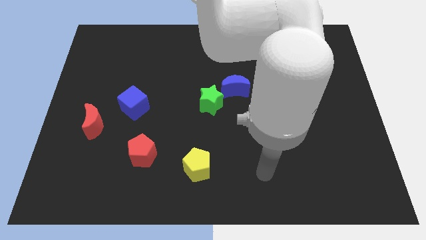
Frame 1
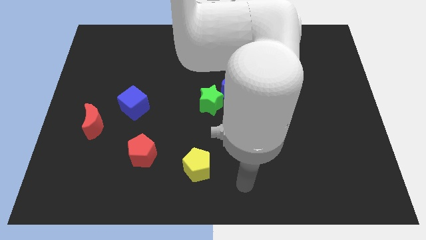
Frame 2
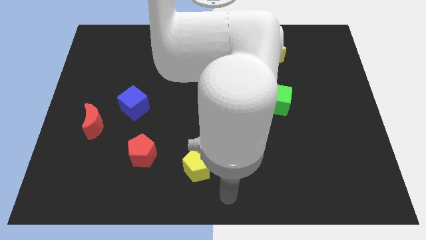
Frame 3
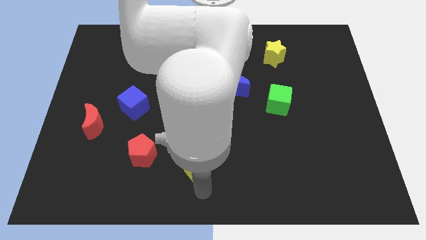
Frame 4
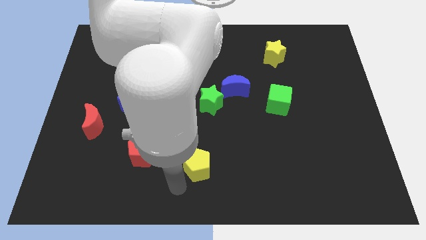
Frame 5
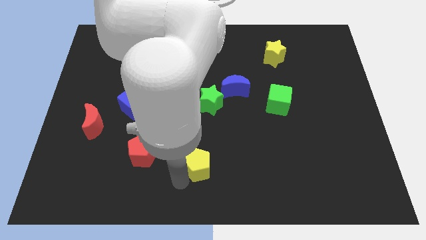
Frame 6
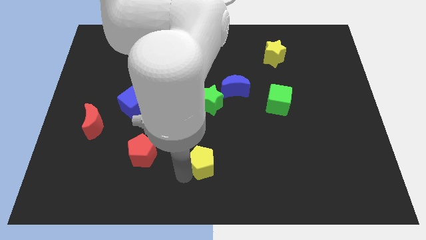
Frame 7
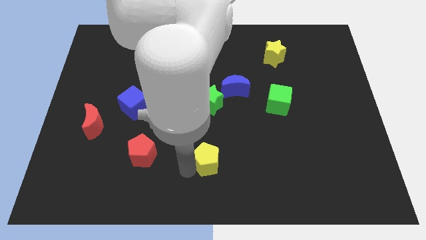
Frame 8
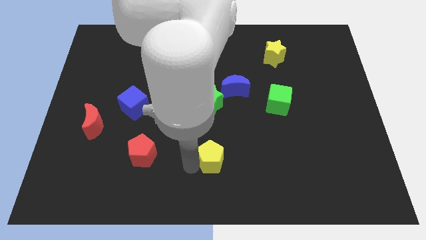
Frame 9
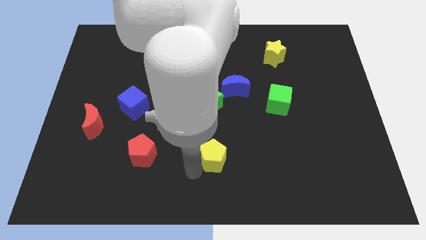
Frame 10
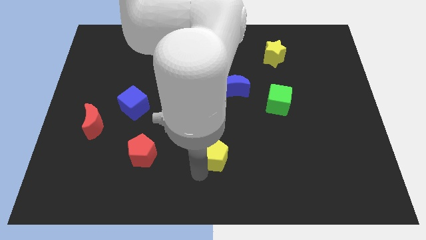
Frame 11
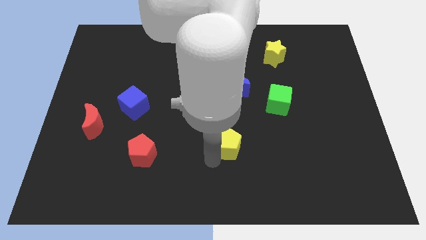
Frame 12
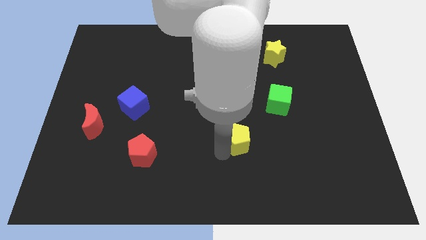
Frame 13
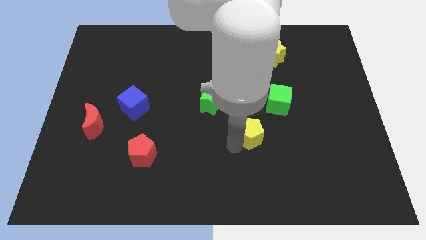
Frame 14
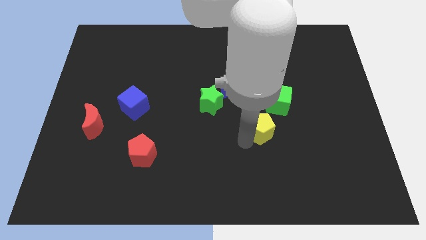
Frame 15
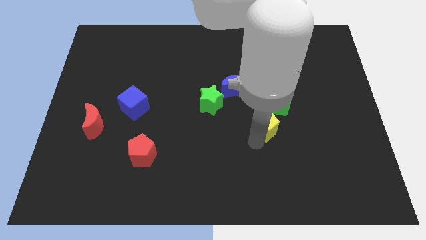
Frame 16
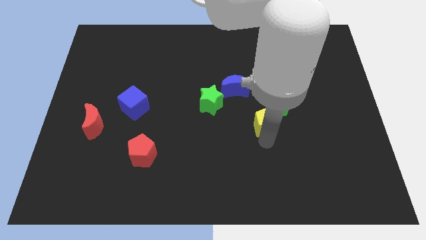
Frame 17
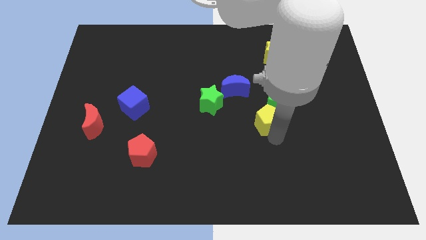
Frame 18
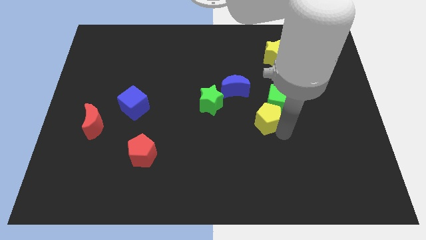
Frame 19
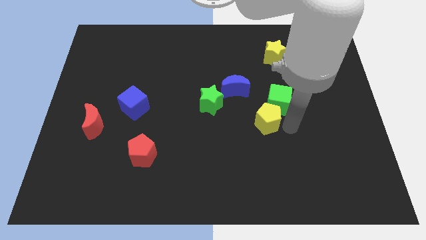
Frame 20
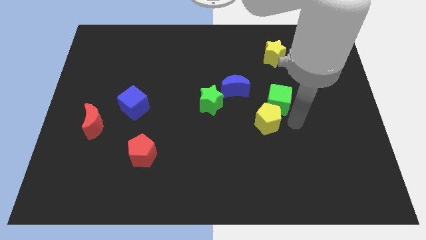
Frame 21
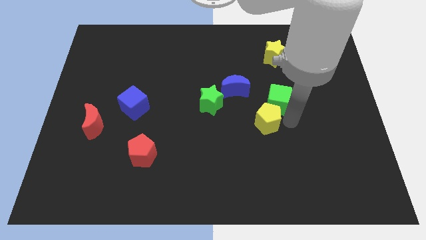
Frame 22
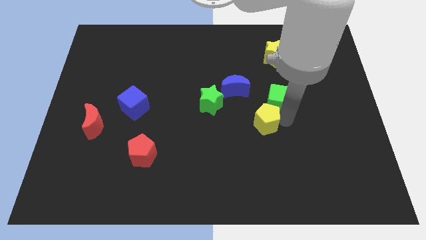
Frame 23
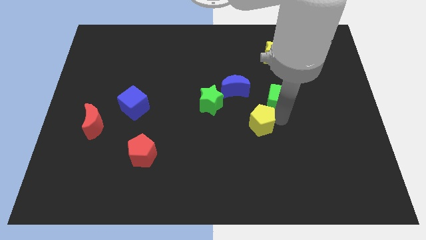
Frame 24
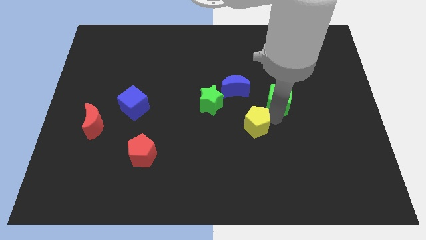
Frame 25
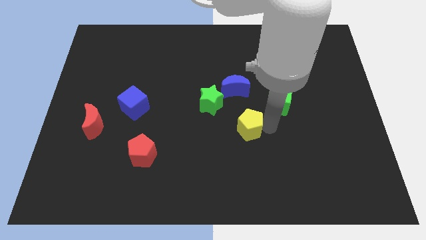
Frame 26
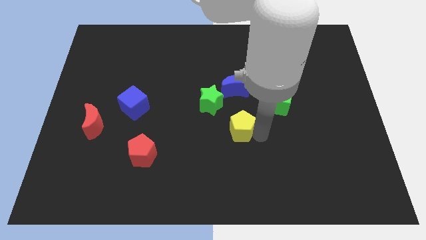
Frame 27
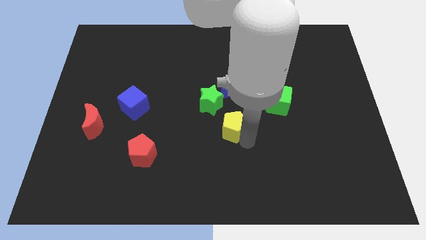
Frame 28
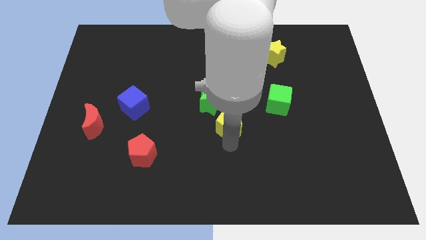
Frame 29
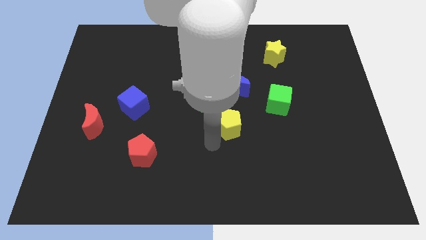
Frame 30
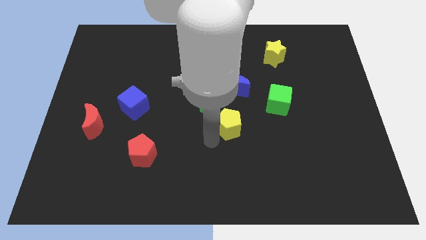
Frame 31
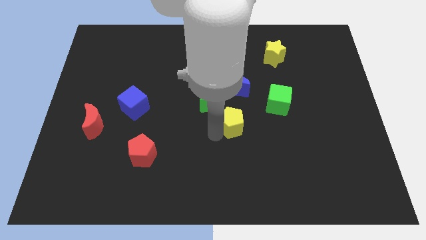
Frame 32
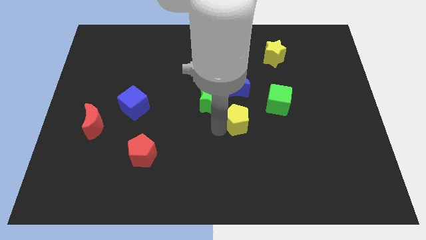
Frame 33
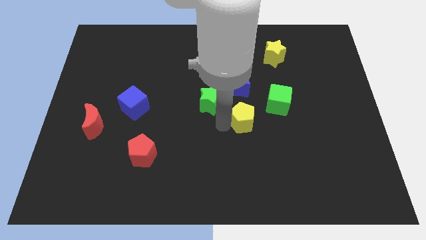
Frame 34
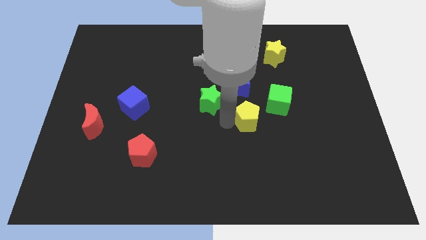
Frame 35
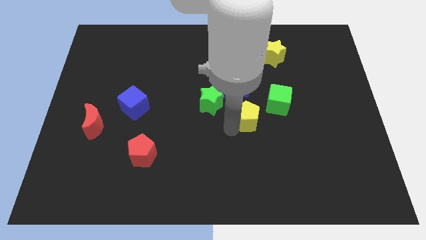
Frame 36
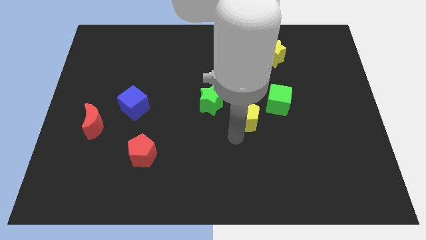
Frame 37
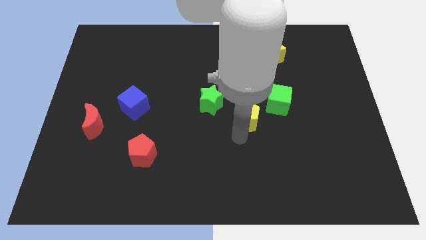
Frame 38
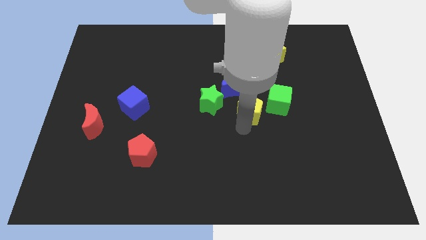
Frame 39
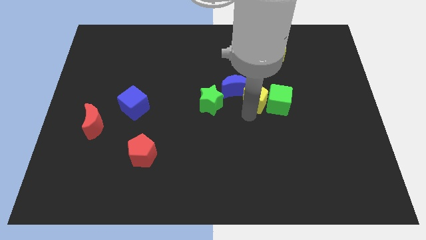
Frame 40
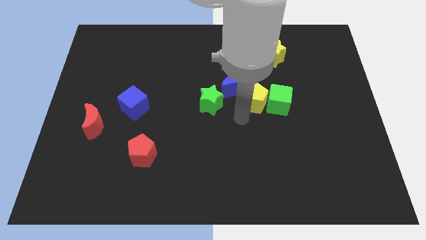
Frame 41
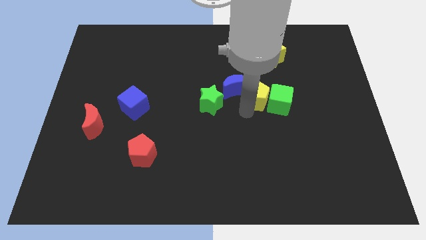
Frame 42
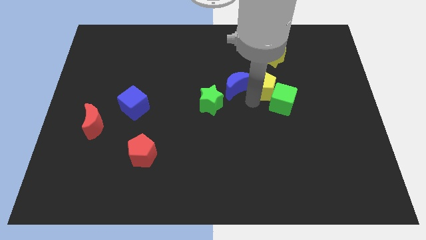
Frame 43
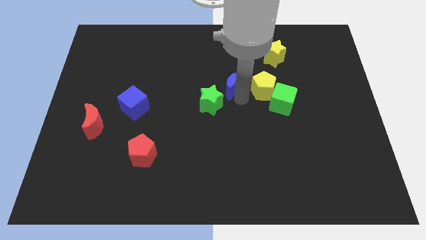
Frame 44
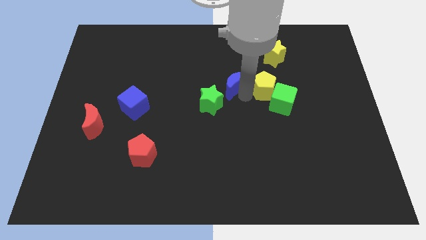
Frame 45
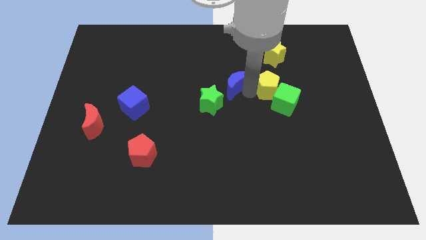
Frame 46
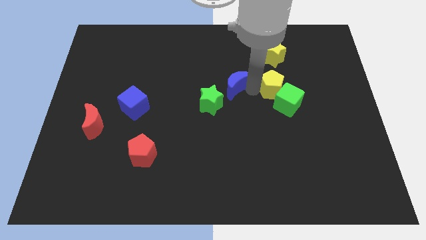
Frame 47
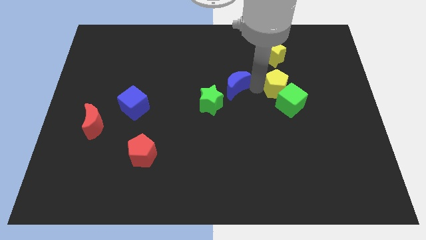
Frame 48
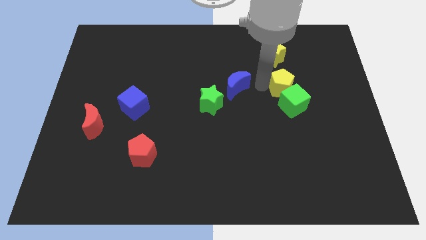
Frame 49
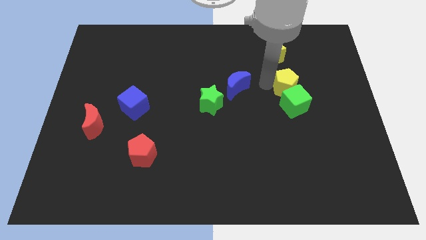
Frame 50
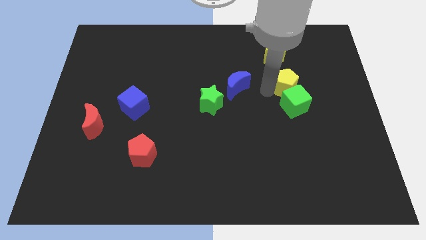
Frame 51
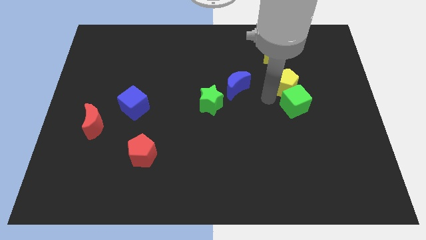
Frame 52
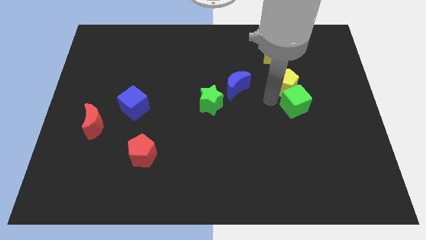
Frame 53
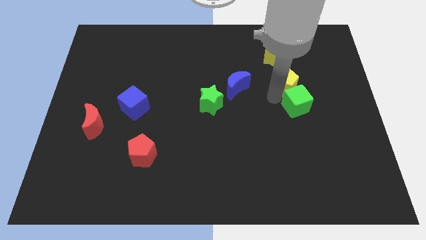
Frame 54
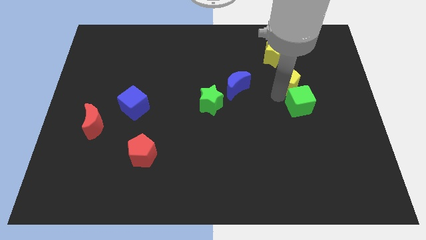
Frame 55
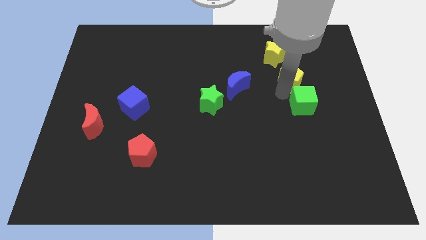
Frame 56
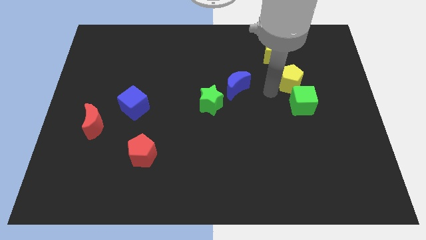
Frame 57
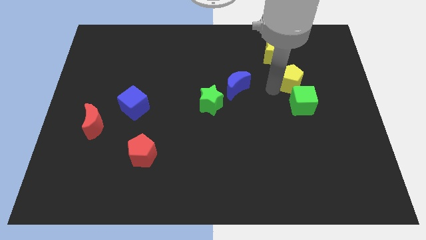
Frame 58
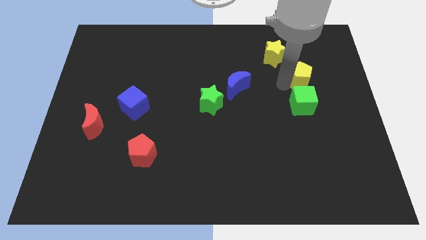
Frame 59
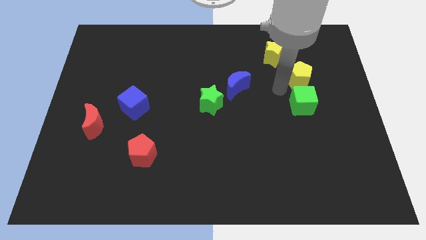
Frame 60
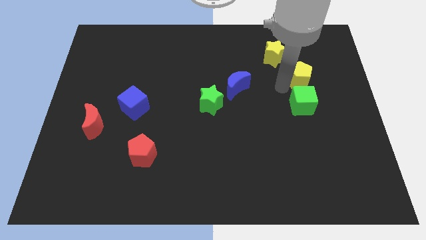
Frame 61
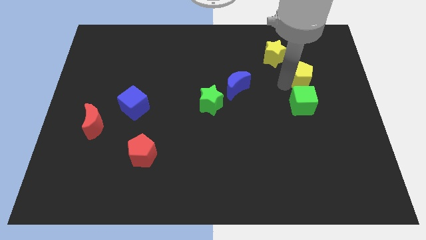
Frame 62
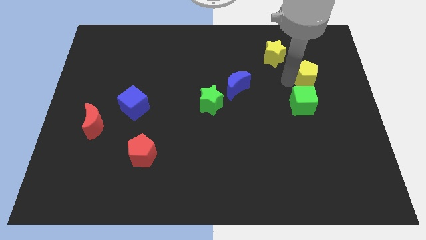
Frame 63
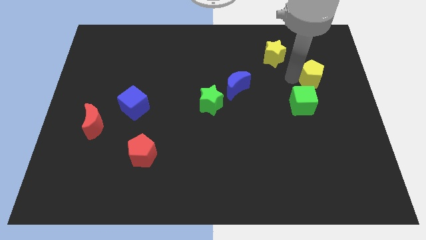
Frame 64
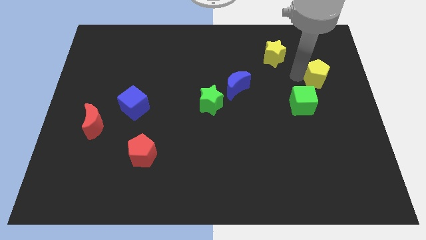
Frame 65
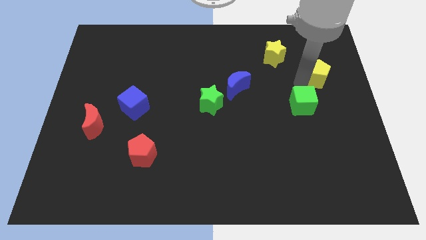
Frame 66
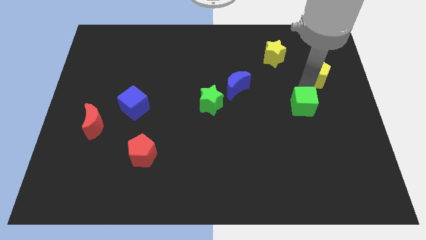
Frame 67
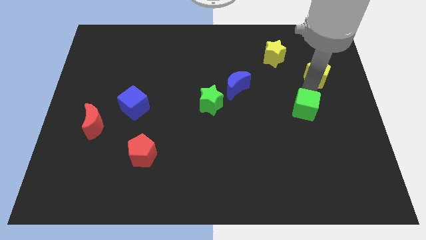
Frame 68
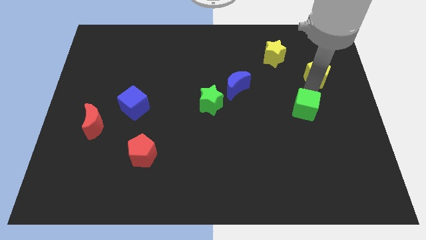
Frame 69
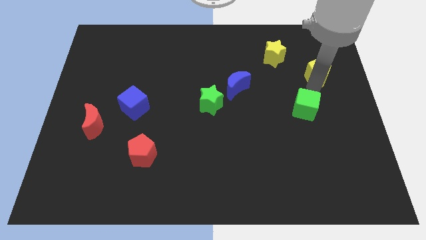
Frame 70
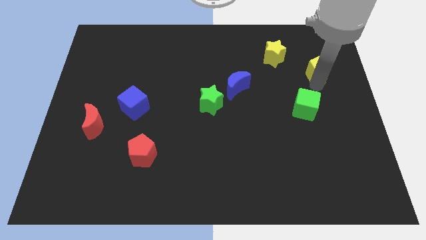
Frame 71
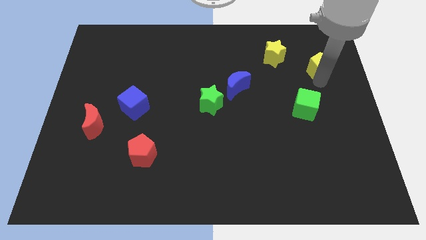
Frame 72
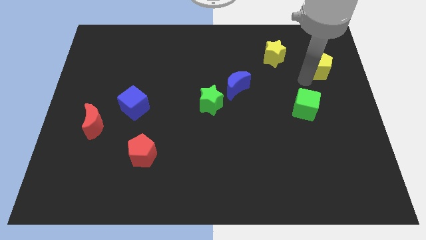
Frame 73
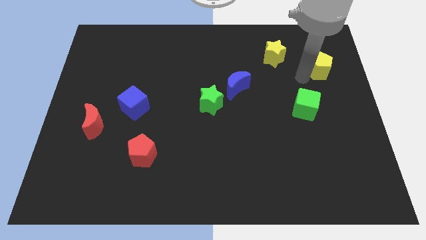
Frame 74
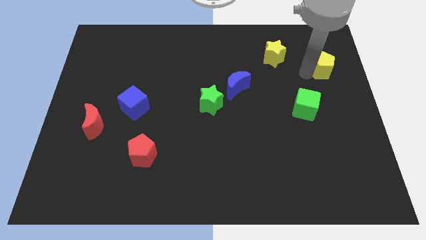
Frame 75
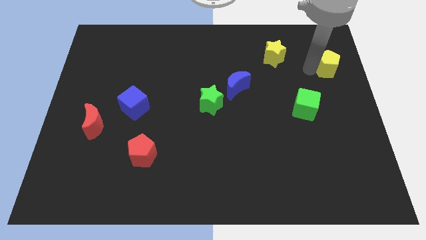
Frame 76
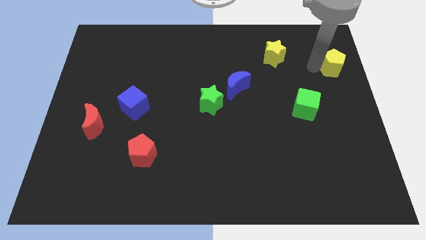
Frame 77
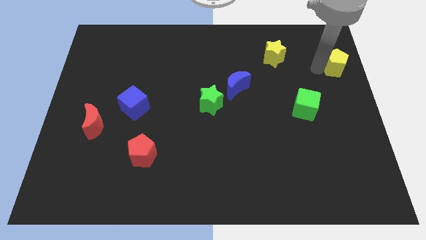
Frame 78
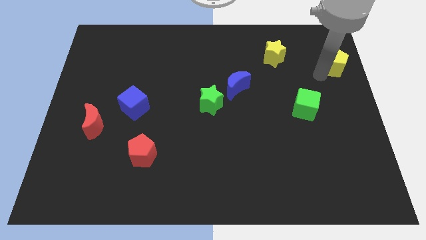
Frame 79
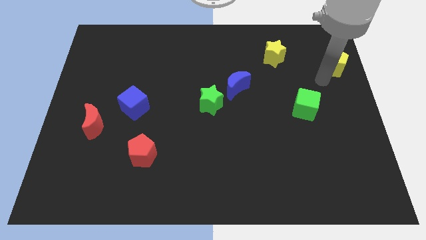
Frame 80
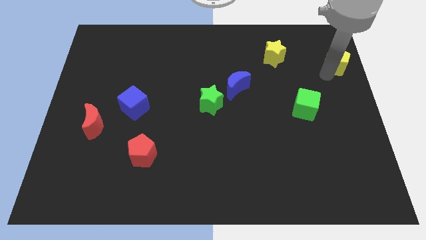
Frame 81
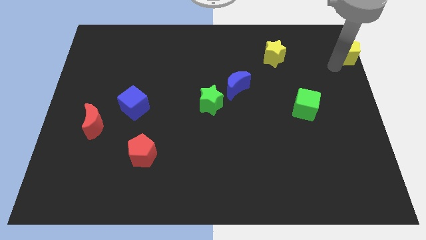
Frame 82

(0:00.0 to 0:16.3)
put the yellow pentagon to the top right
